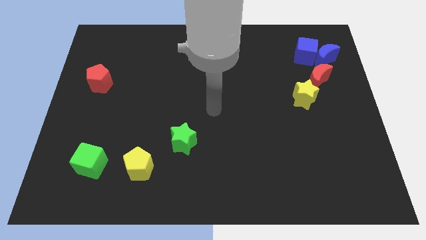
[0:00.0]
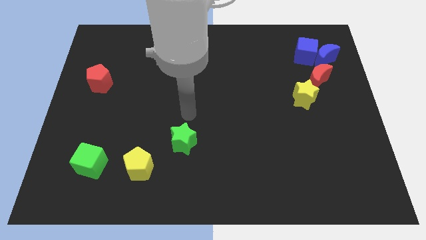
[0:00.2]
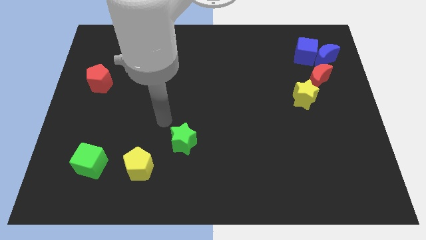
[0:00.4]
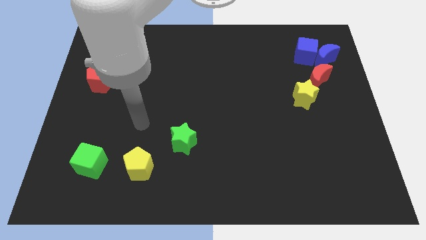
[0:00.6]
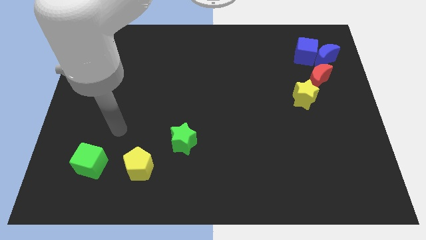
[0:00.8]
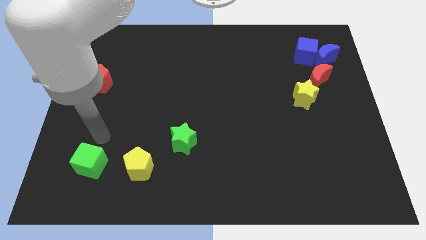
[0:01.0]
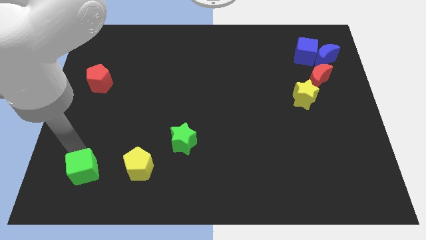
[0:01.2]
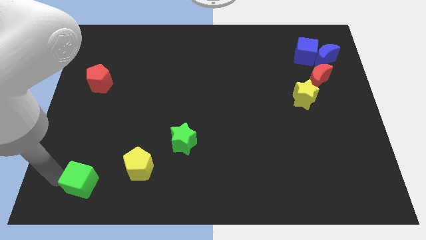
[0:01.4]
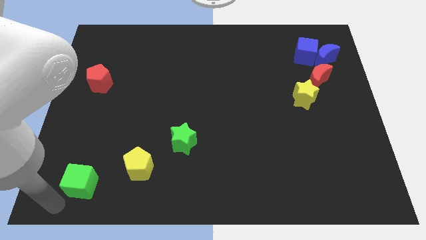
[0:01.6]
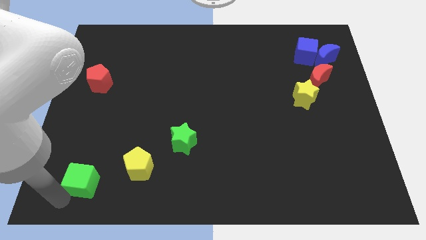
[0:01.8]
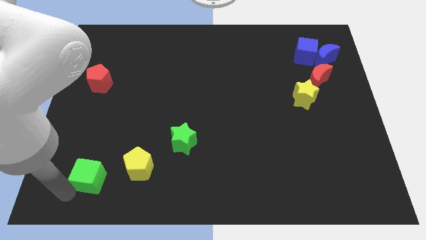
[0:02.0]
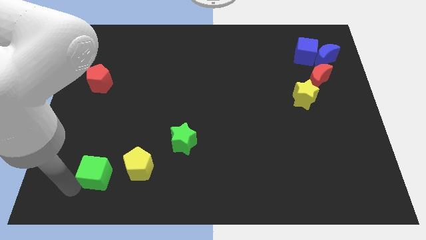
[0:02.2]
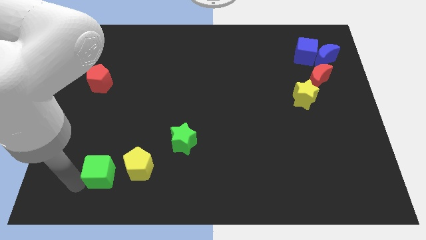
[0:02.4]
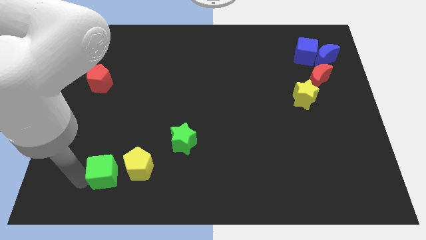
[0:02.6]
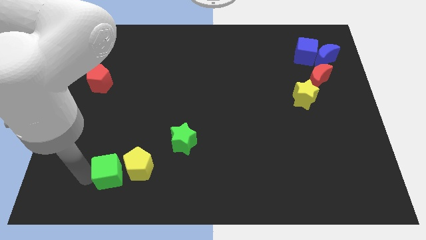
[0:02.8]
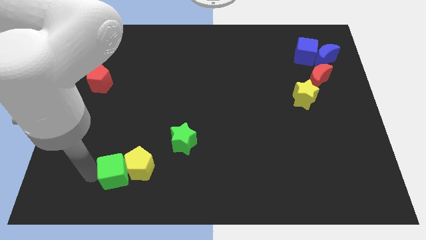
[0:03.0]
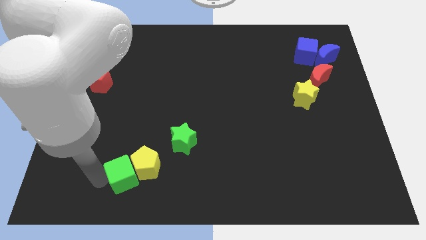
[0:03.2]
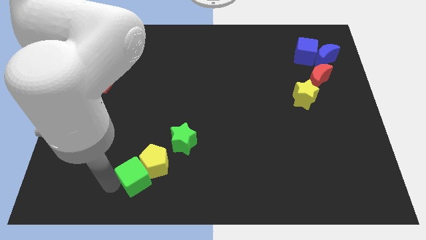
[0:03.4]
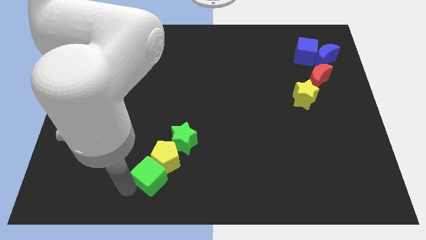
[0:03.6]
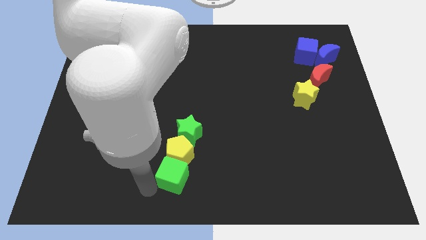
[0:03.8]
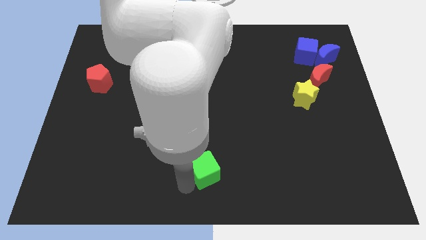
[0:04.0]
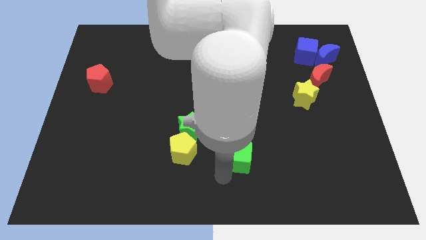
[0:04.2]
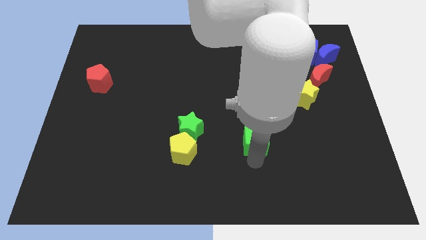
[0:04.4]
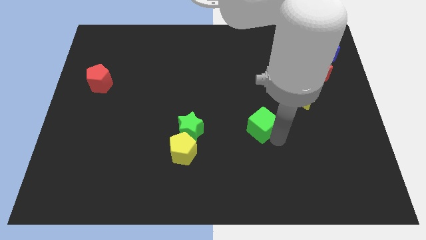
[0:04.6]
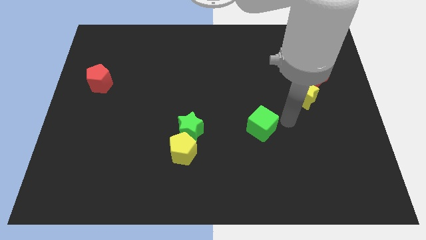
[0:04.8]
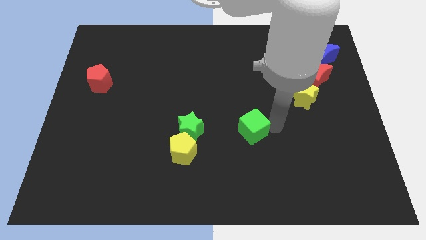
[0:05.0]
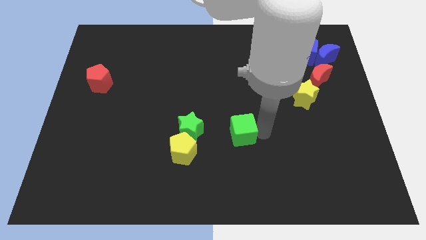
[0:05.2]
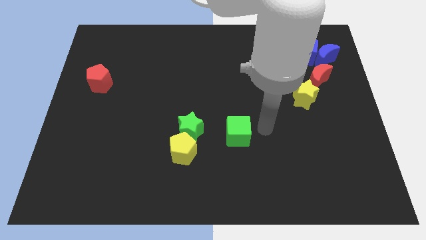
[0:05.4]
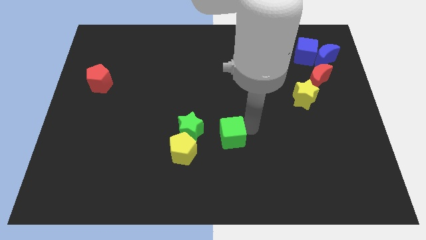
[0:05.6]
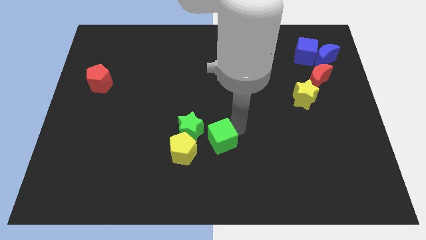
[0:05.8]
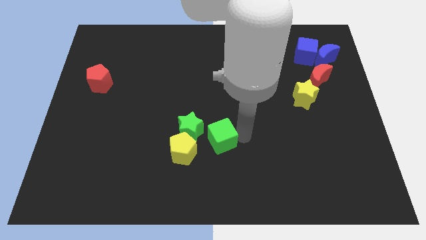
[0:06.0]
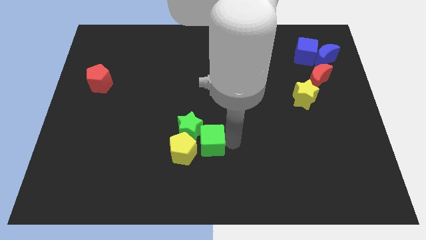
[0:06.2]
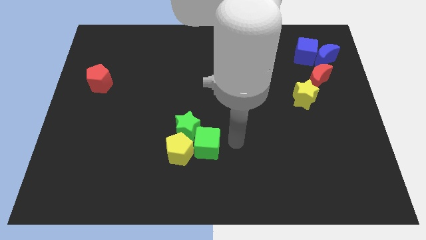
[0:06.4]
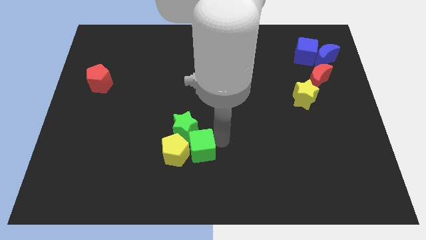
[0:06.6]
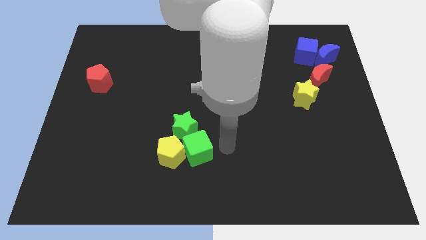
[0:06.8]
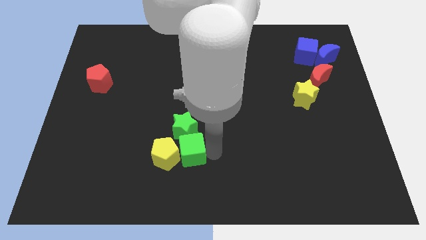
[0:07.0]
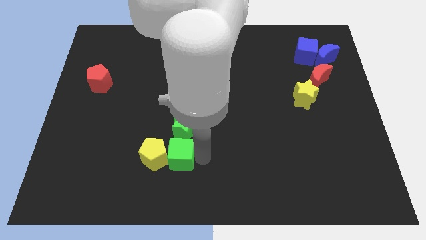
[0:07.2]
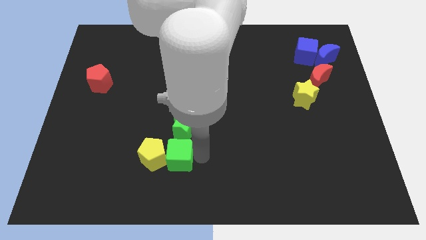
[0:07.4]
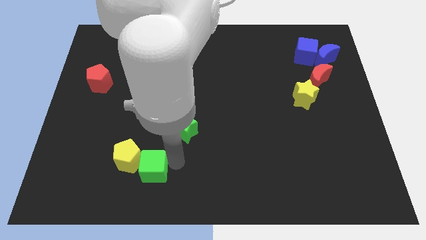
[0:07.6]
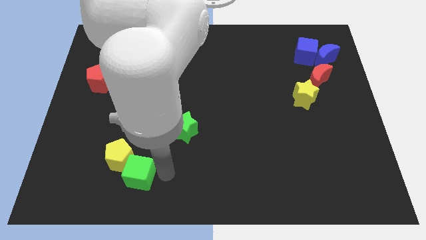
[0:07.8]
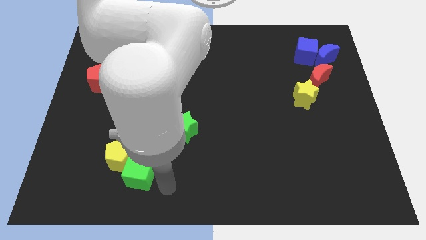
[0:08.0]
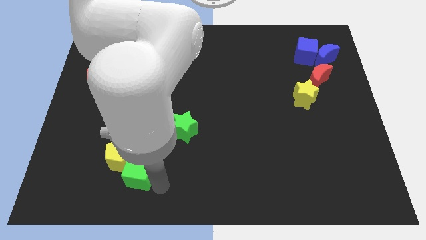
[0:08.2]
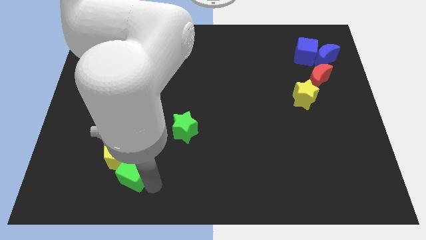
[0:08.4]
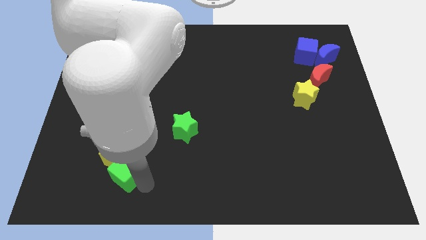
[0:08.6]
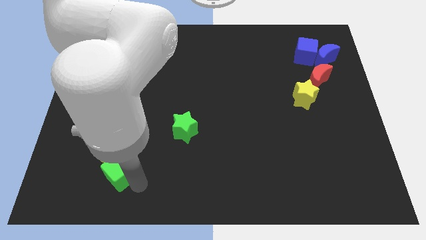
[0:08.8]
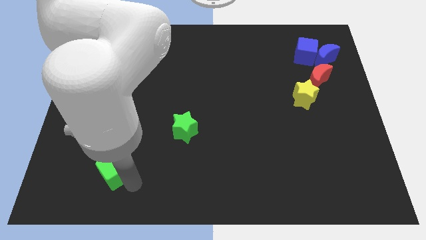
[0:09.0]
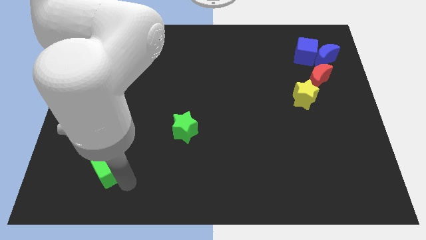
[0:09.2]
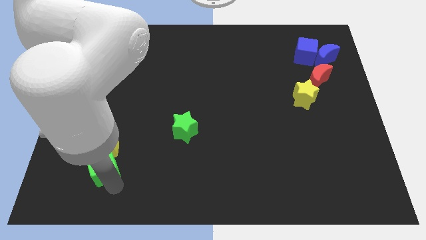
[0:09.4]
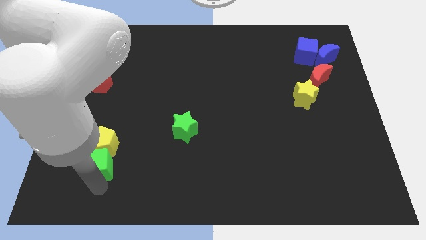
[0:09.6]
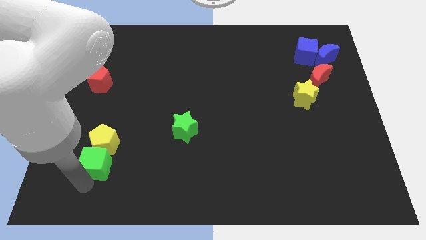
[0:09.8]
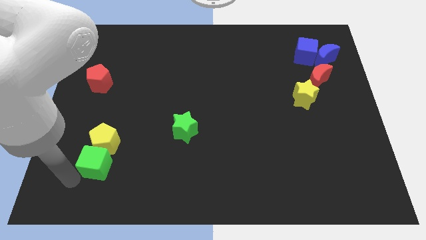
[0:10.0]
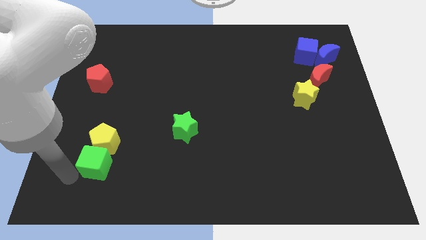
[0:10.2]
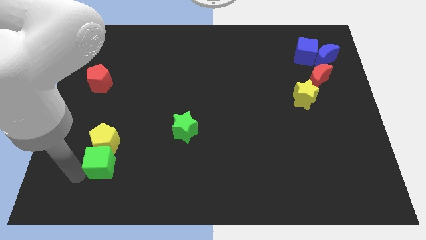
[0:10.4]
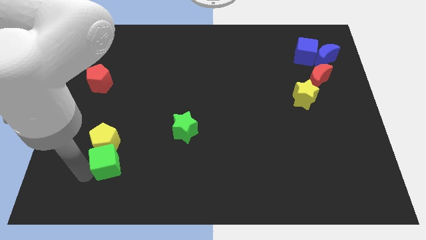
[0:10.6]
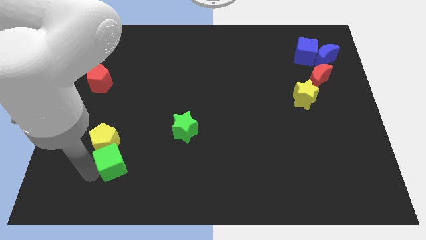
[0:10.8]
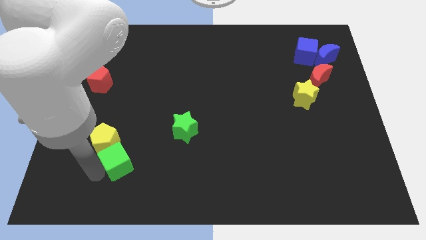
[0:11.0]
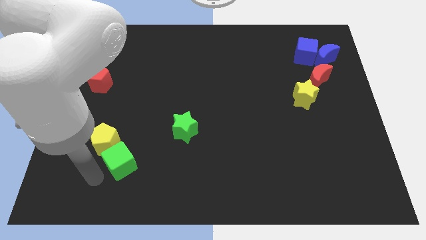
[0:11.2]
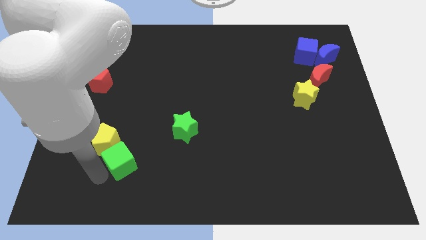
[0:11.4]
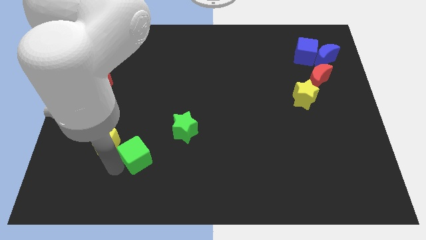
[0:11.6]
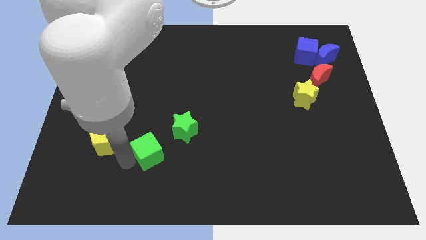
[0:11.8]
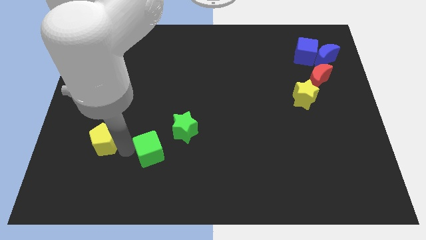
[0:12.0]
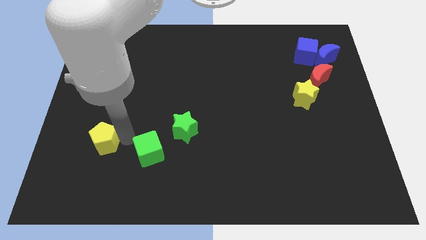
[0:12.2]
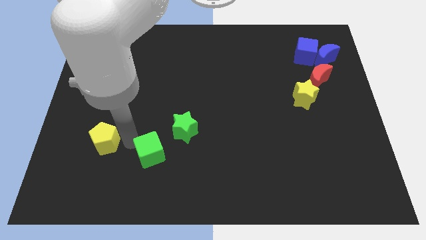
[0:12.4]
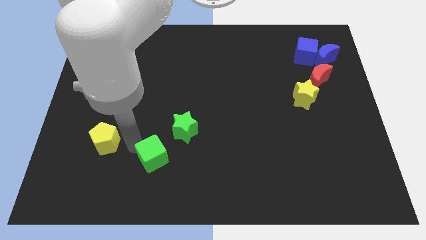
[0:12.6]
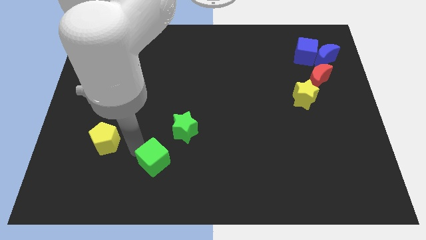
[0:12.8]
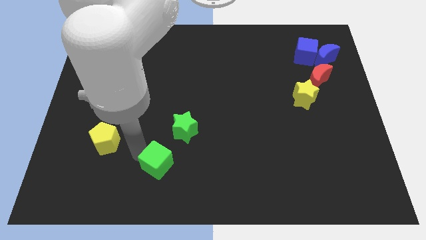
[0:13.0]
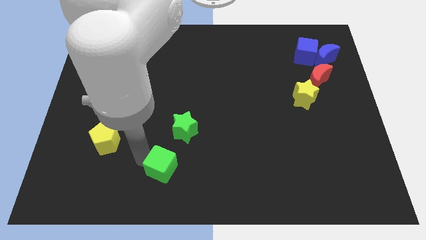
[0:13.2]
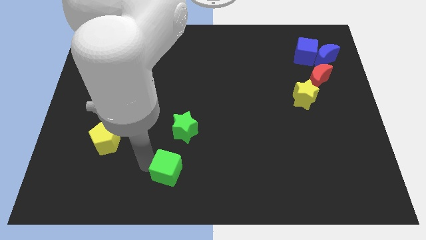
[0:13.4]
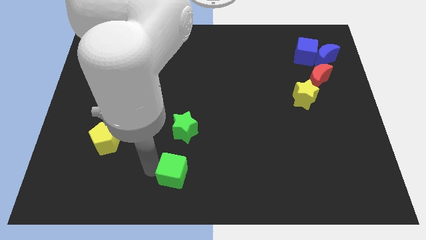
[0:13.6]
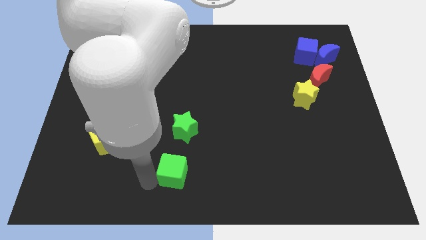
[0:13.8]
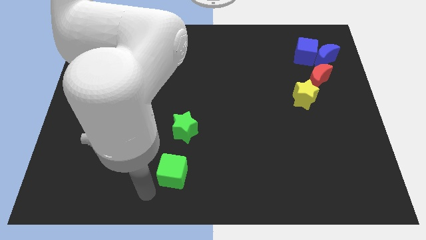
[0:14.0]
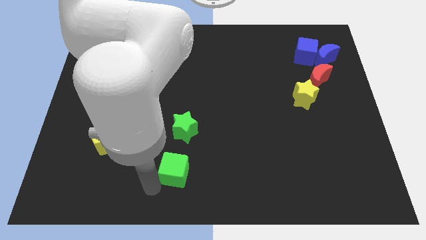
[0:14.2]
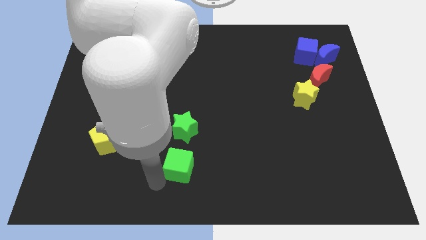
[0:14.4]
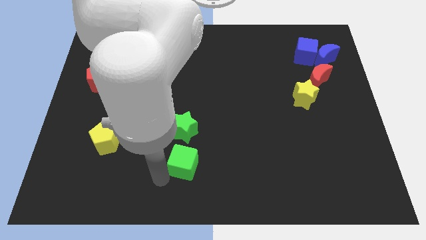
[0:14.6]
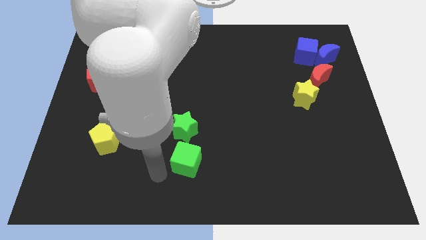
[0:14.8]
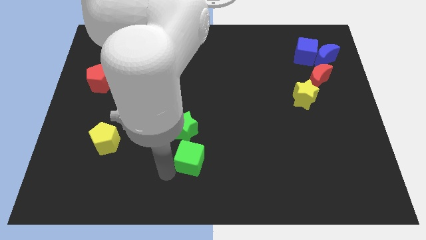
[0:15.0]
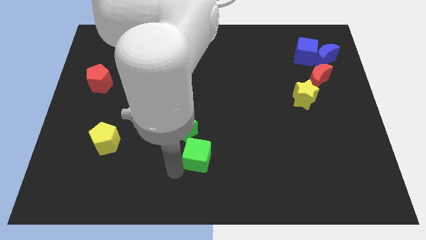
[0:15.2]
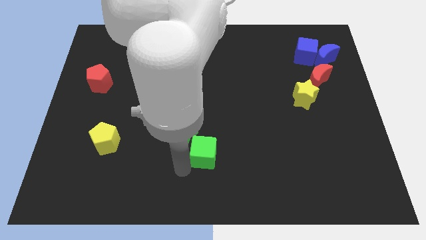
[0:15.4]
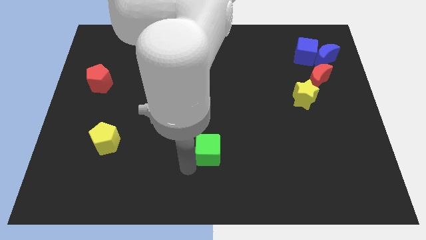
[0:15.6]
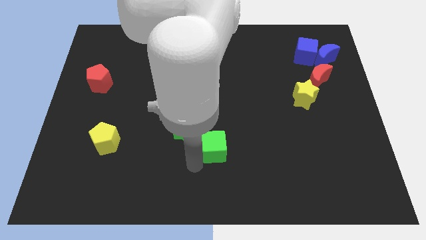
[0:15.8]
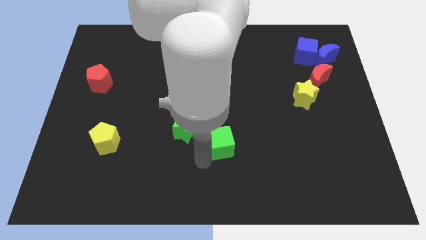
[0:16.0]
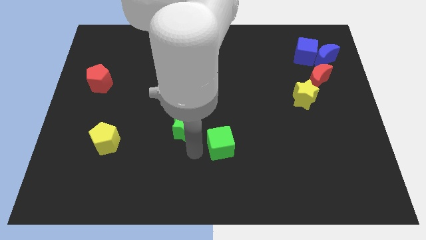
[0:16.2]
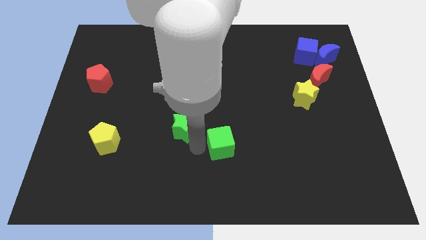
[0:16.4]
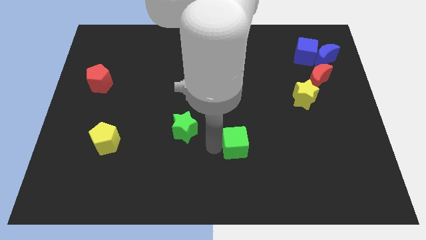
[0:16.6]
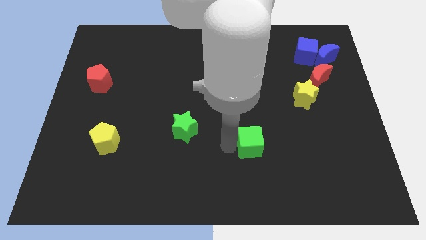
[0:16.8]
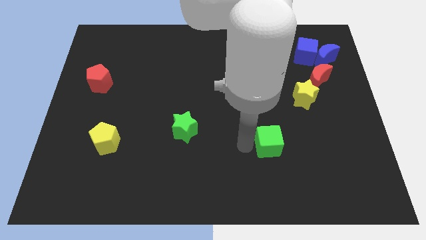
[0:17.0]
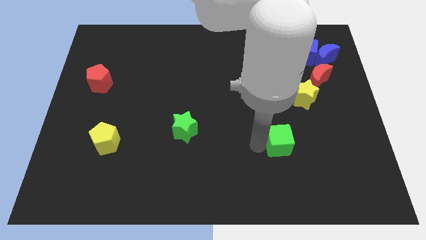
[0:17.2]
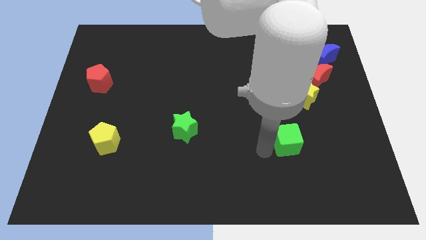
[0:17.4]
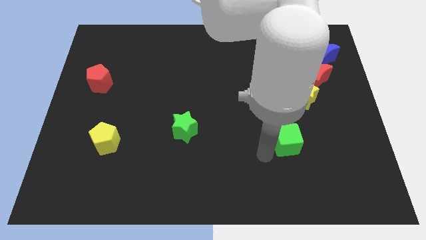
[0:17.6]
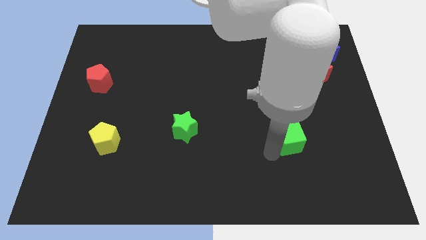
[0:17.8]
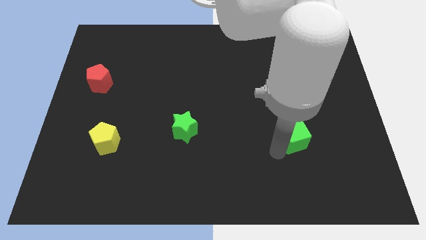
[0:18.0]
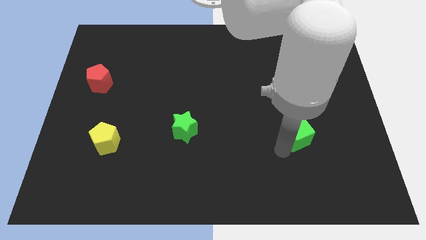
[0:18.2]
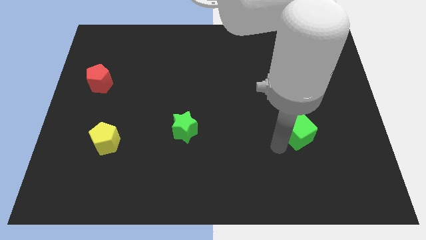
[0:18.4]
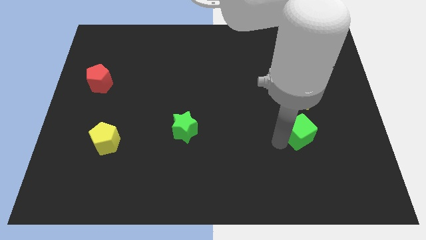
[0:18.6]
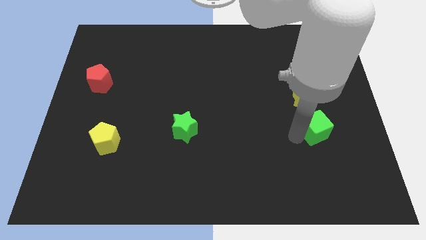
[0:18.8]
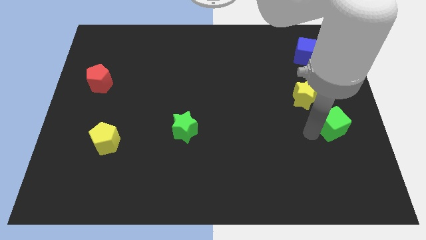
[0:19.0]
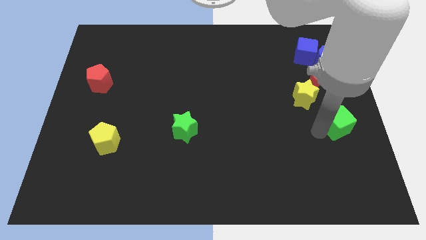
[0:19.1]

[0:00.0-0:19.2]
move the green cube to the right side
